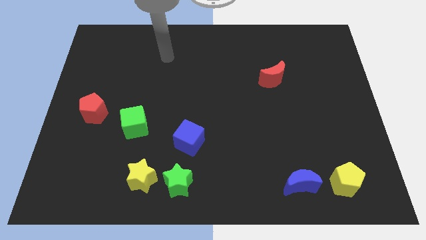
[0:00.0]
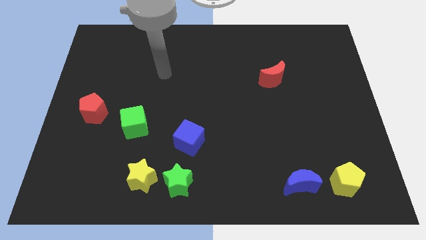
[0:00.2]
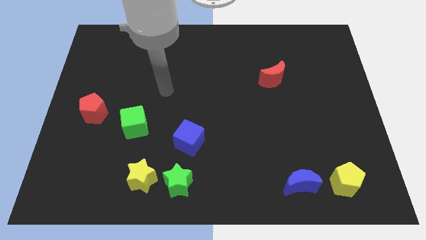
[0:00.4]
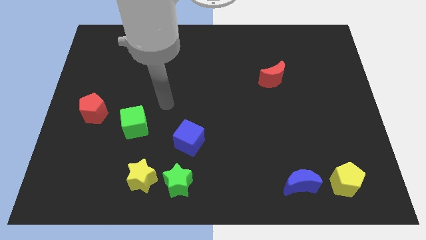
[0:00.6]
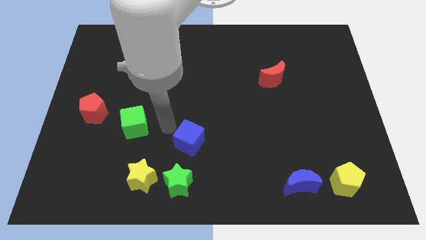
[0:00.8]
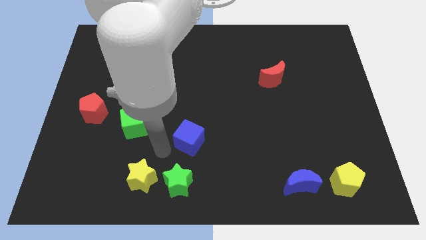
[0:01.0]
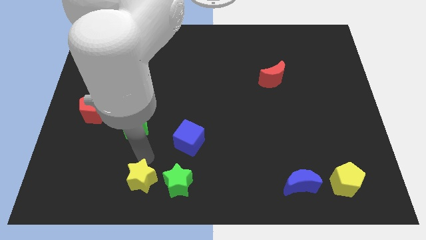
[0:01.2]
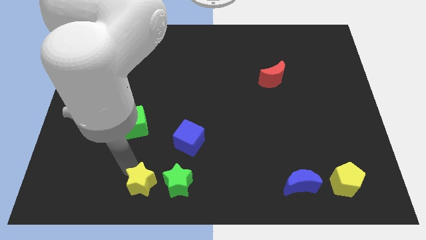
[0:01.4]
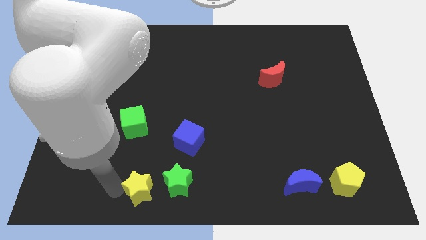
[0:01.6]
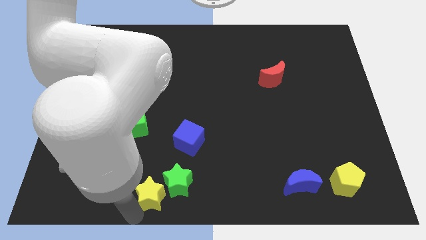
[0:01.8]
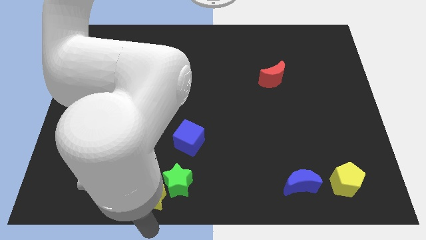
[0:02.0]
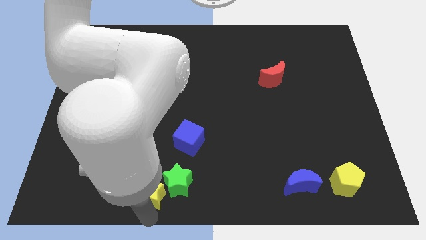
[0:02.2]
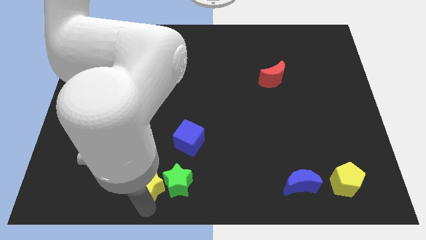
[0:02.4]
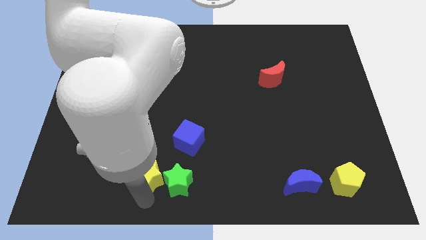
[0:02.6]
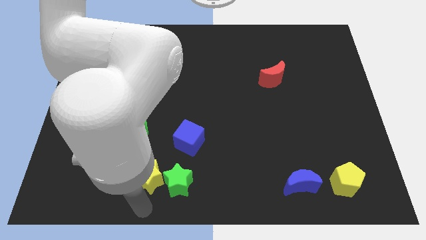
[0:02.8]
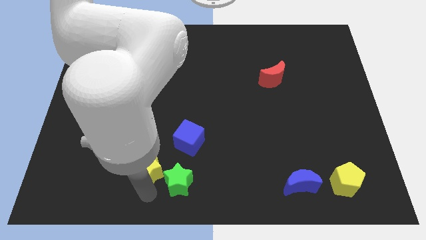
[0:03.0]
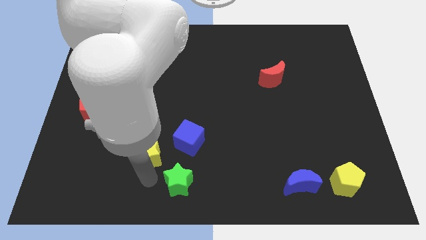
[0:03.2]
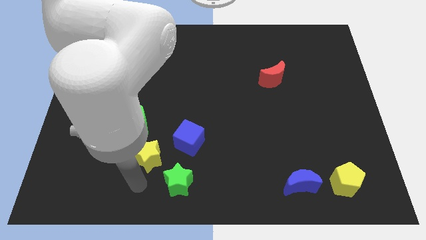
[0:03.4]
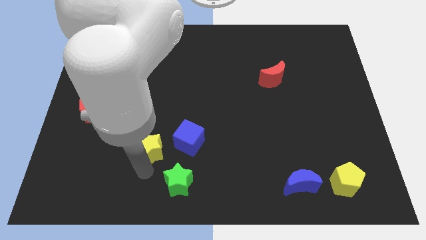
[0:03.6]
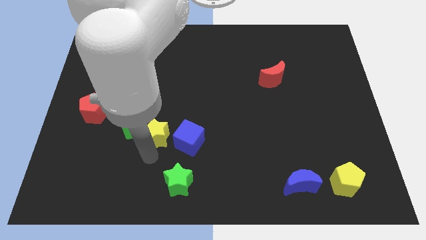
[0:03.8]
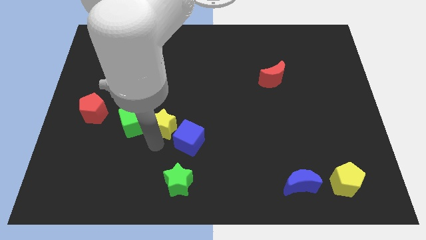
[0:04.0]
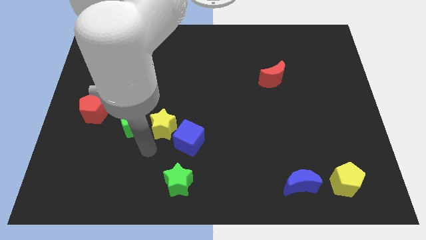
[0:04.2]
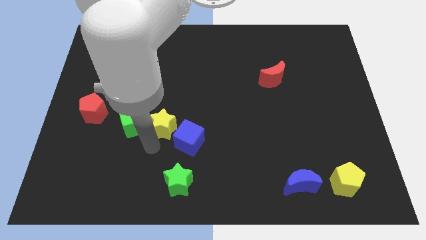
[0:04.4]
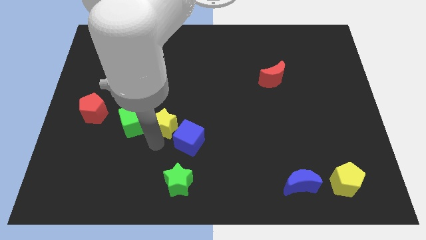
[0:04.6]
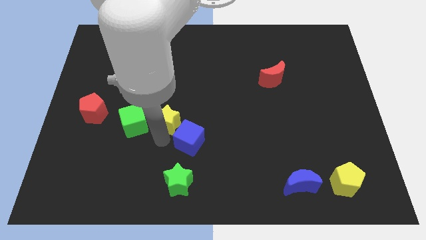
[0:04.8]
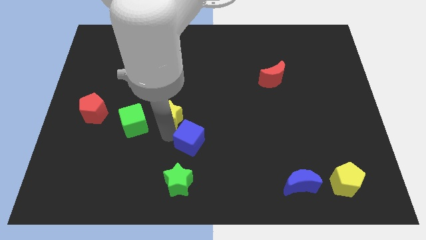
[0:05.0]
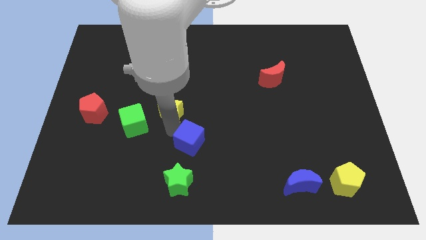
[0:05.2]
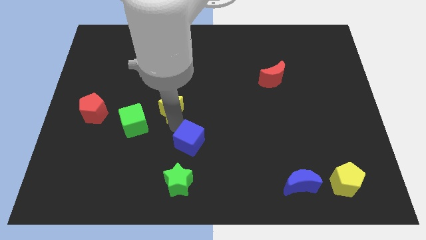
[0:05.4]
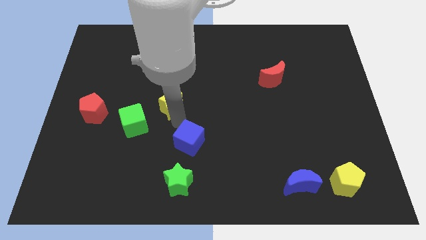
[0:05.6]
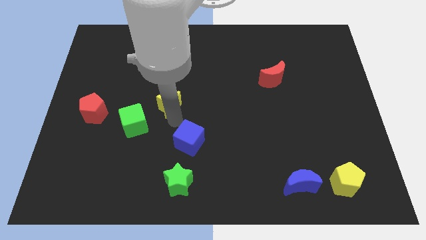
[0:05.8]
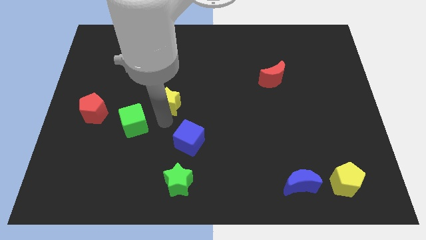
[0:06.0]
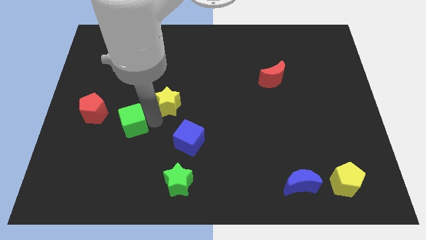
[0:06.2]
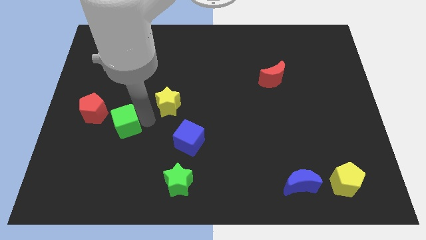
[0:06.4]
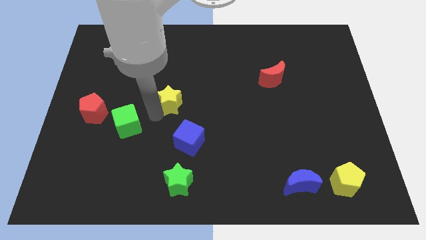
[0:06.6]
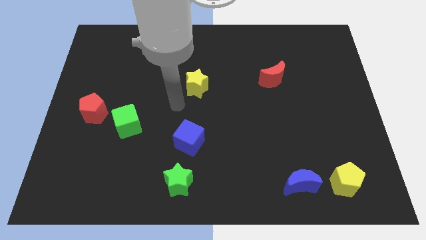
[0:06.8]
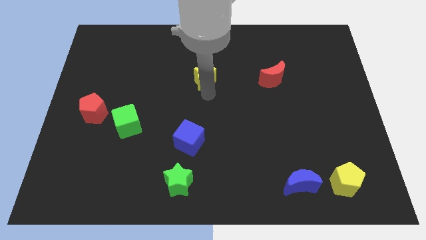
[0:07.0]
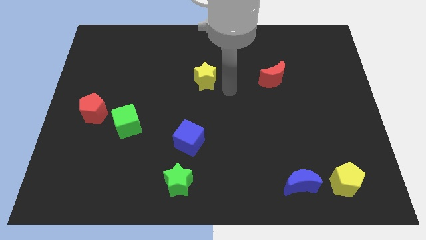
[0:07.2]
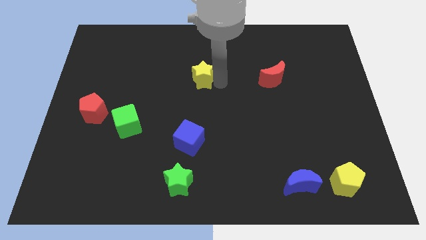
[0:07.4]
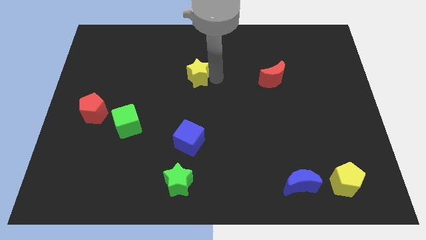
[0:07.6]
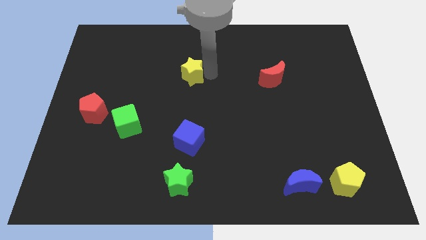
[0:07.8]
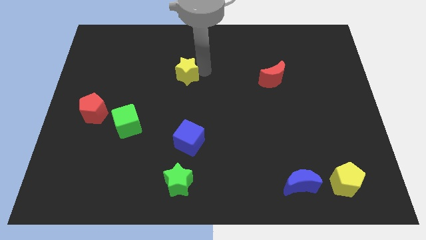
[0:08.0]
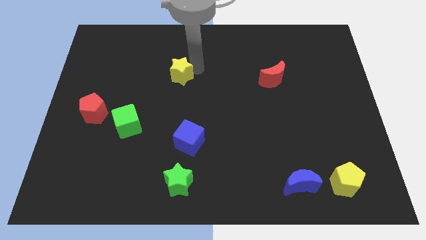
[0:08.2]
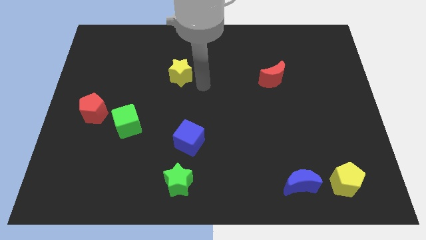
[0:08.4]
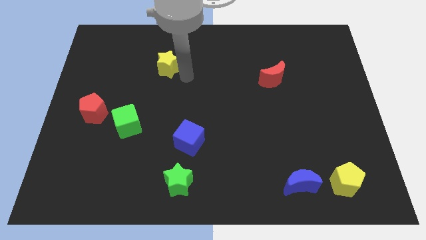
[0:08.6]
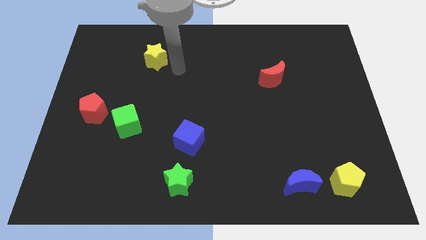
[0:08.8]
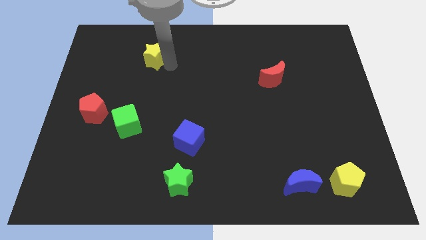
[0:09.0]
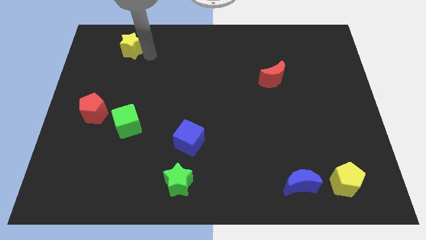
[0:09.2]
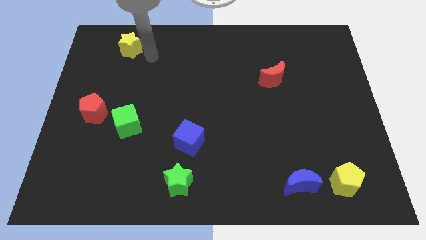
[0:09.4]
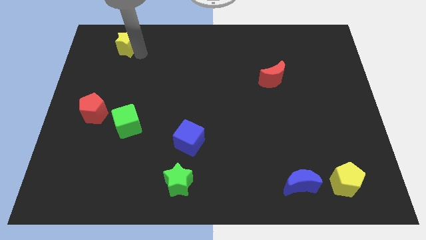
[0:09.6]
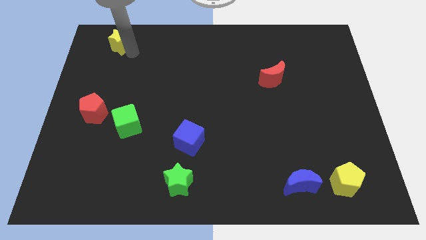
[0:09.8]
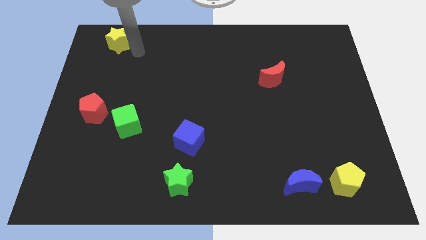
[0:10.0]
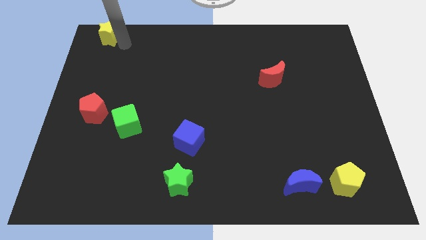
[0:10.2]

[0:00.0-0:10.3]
slide the yellow star to the top left of the board
